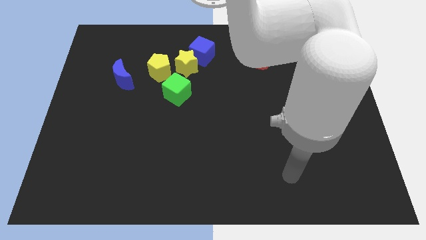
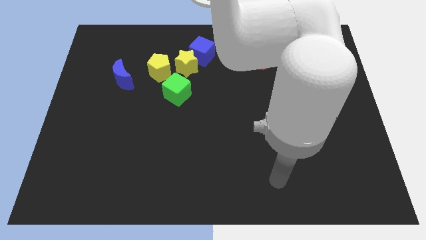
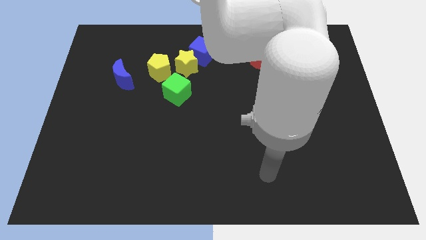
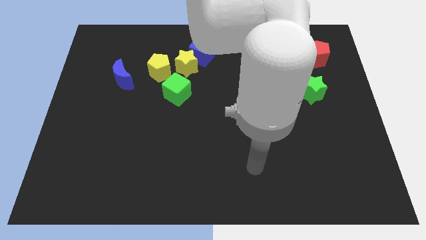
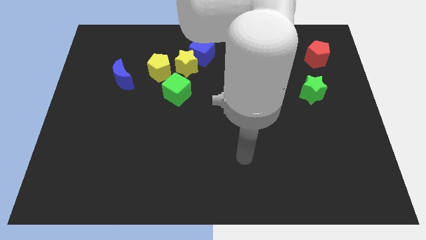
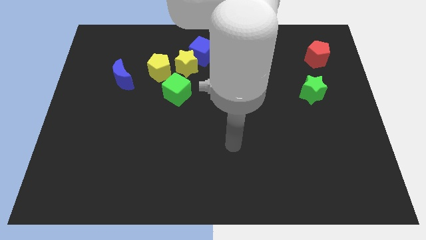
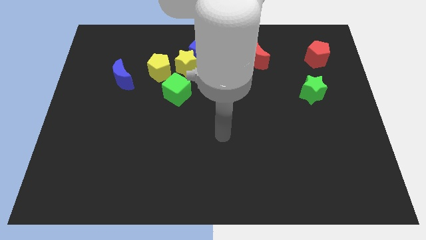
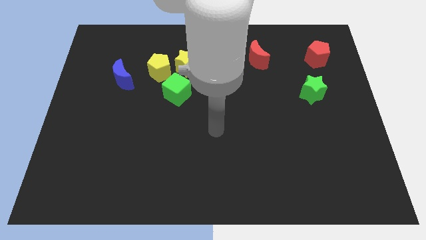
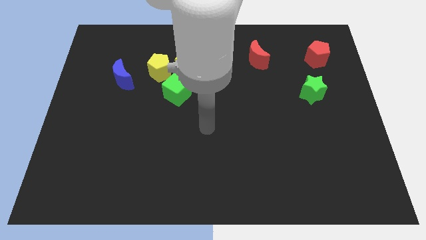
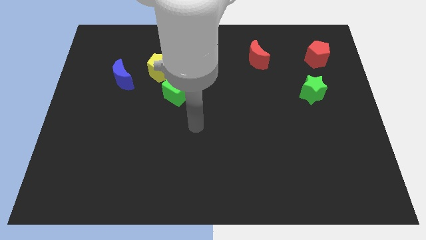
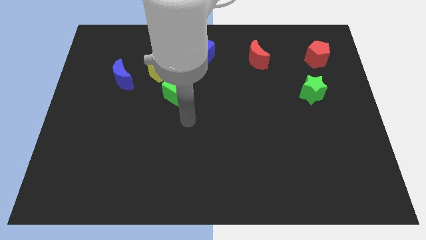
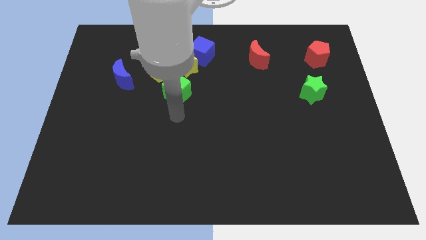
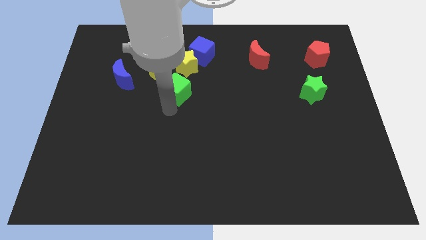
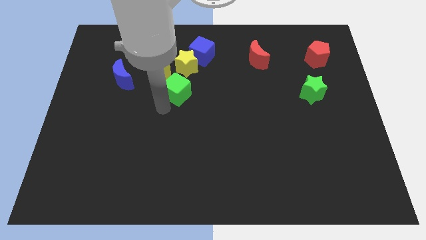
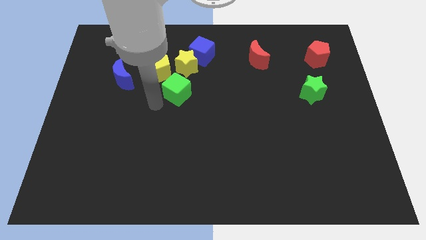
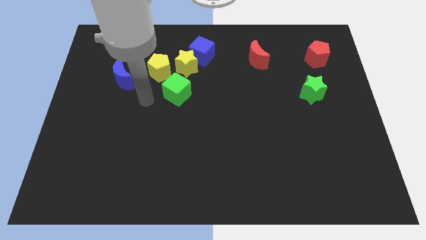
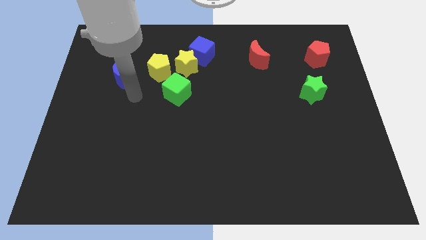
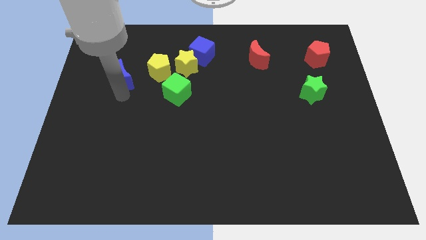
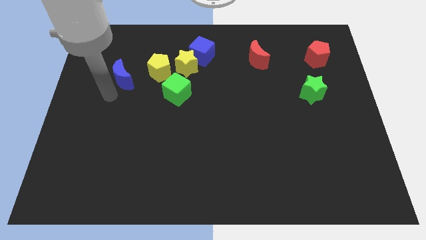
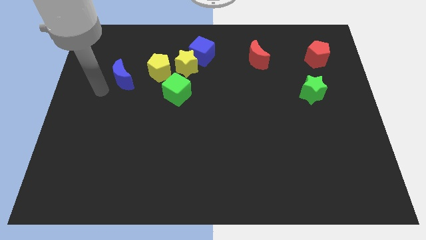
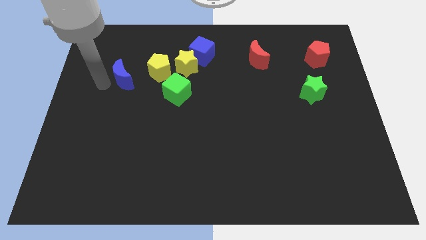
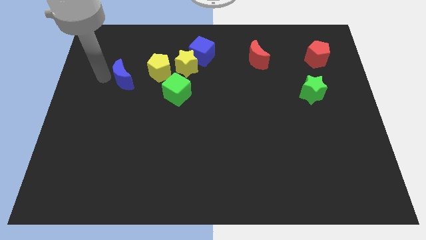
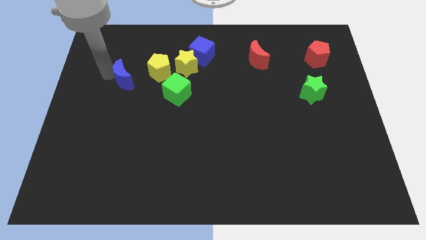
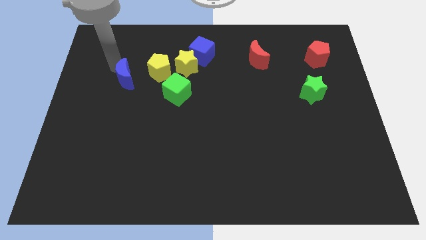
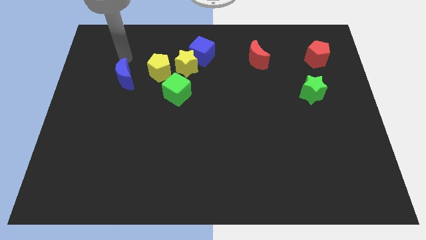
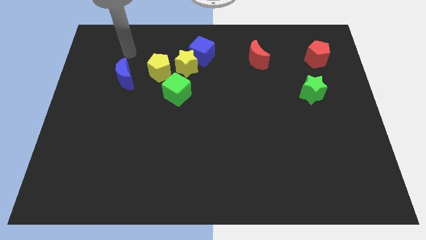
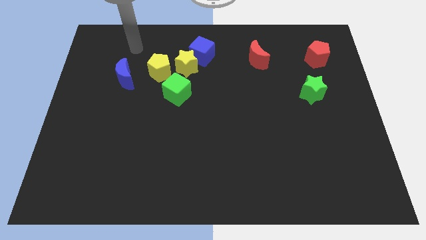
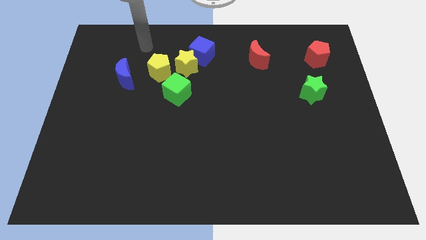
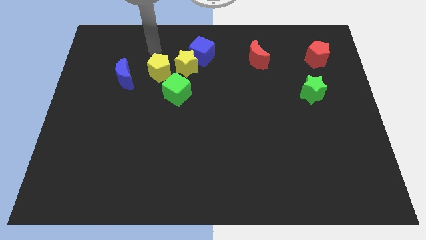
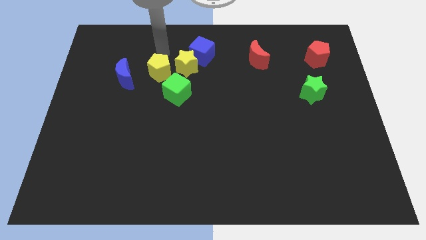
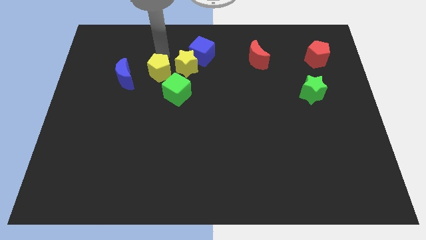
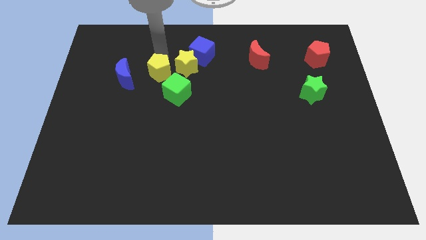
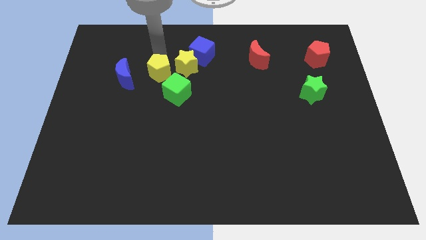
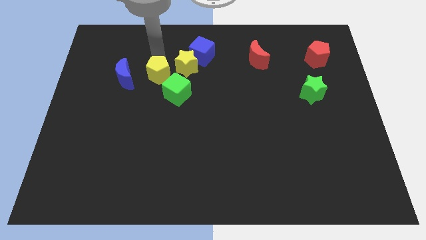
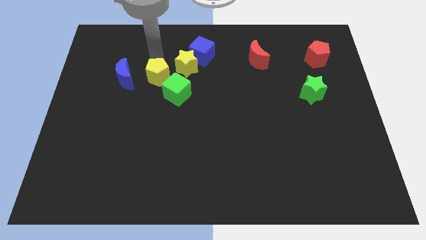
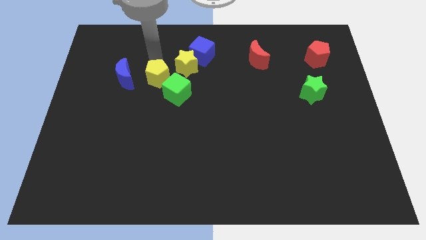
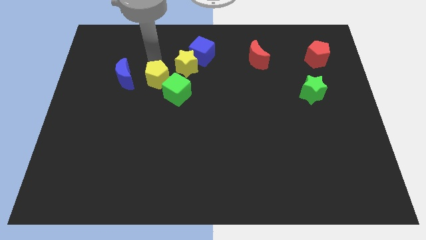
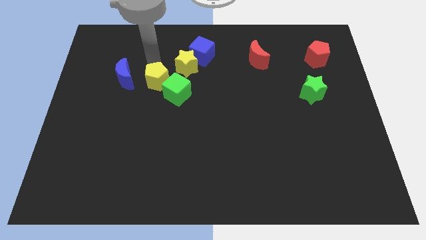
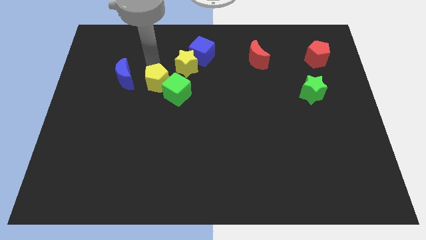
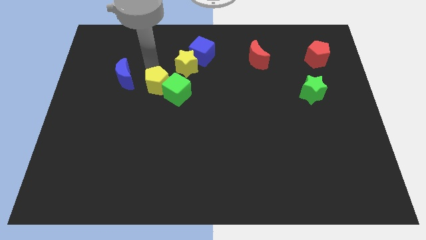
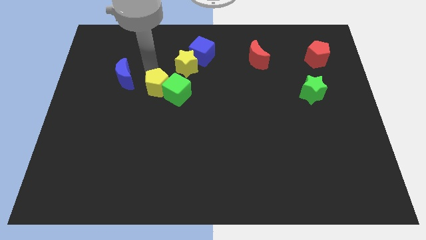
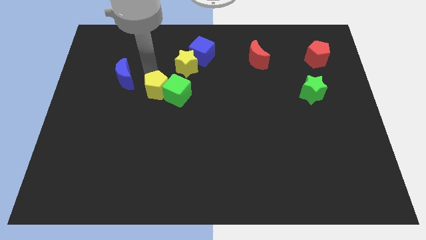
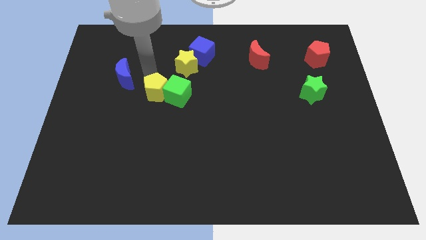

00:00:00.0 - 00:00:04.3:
move the yellow pentagon down a bit

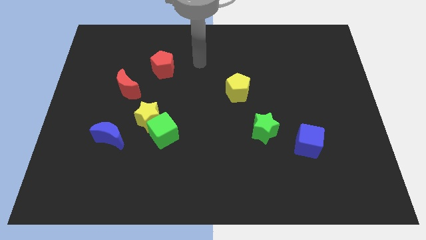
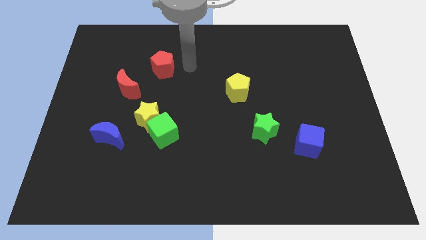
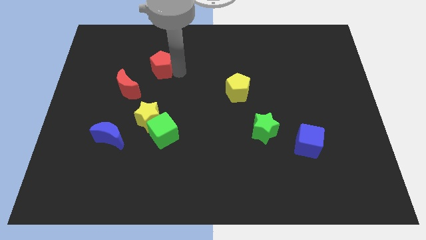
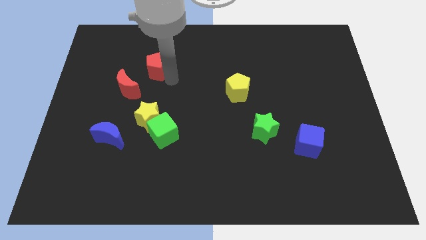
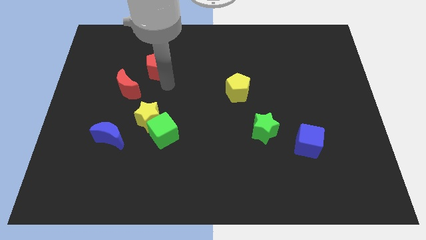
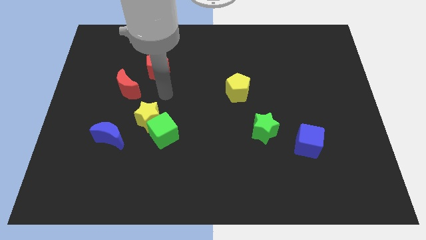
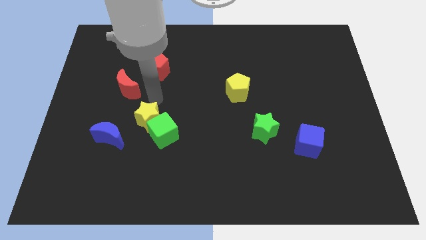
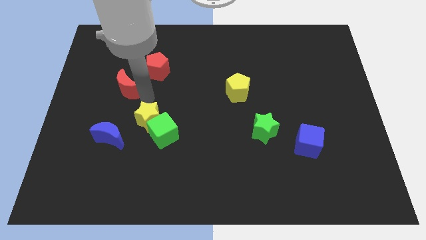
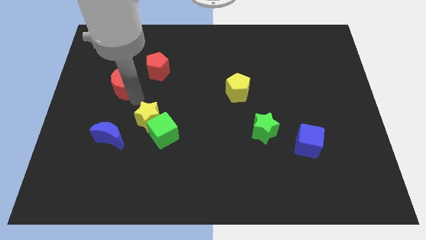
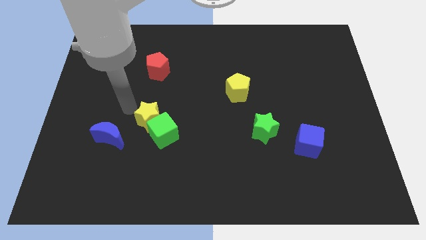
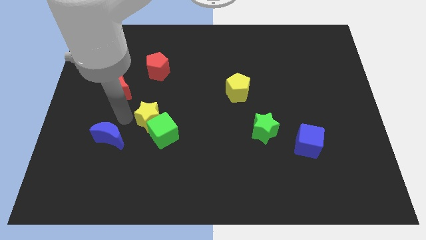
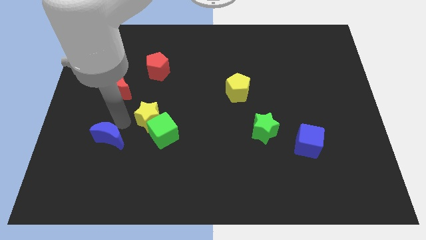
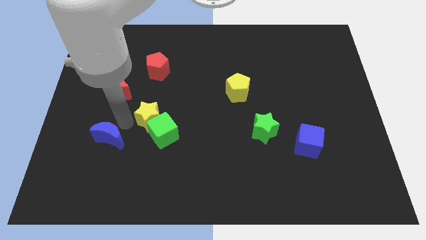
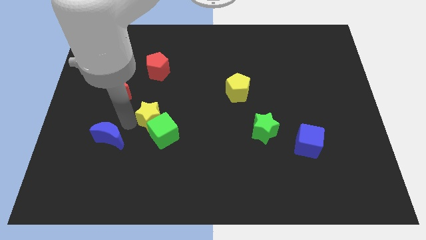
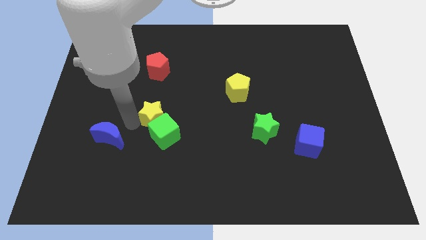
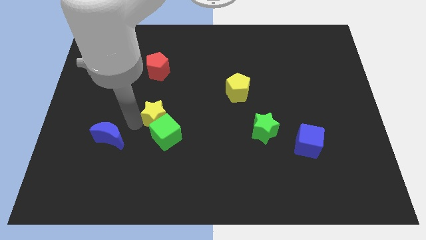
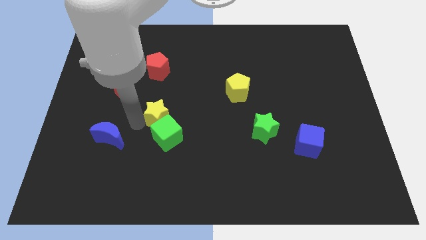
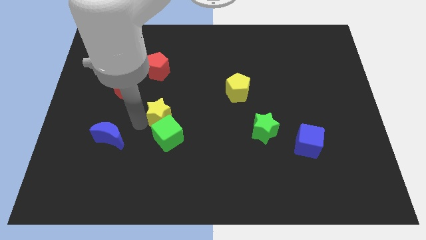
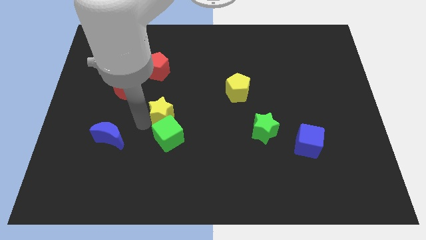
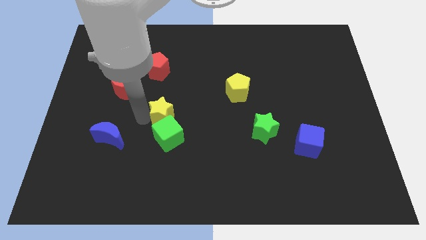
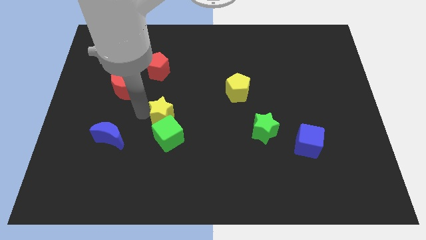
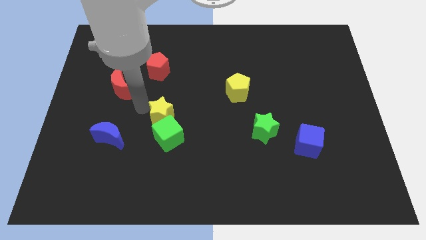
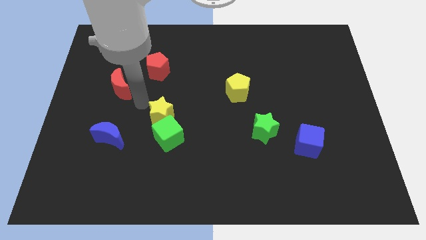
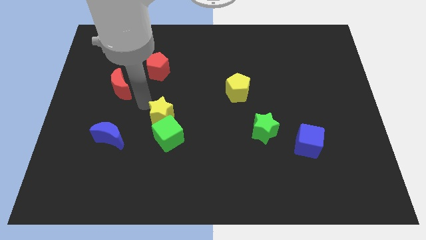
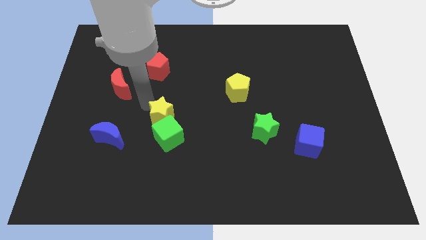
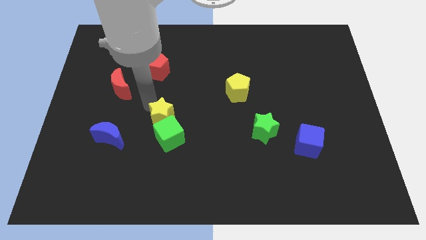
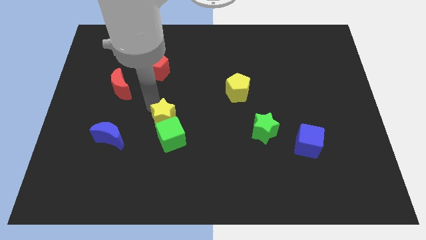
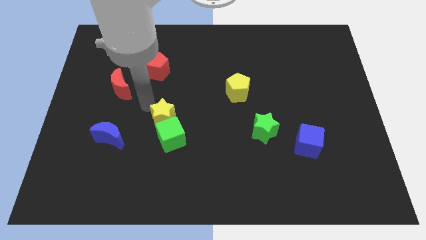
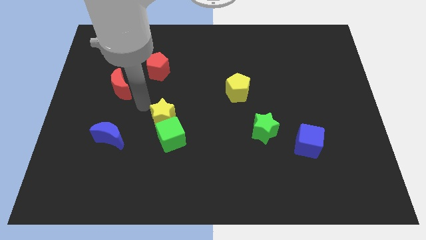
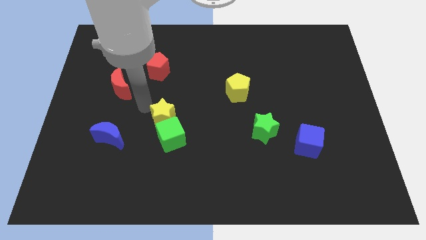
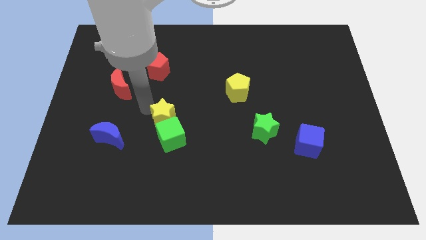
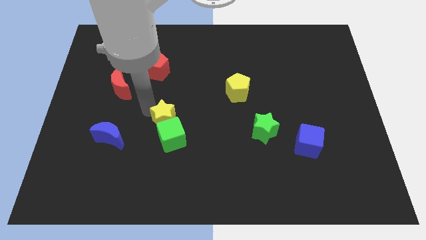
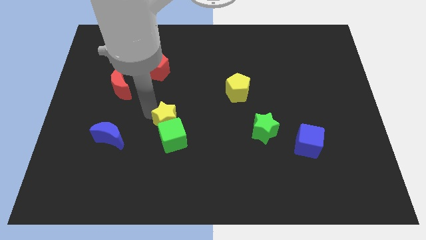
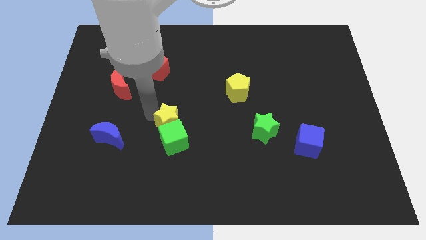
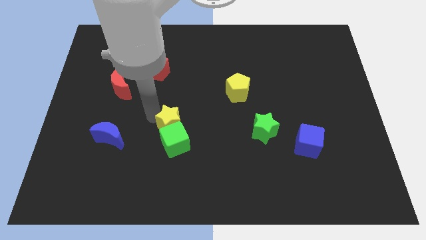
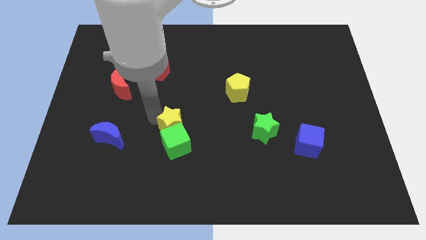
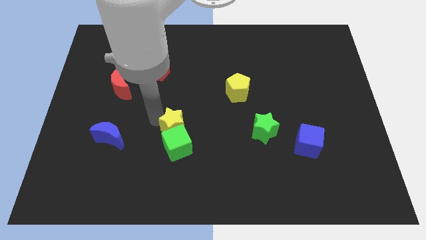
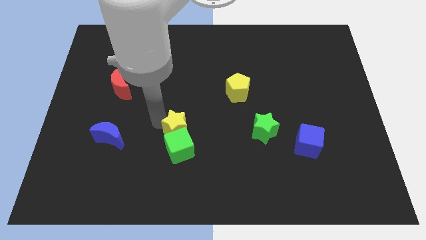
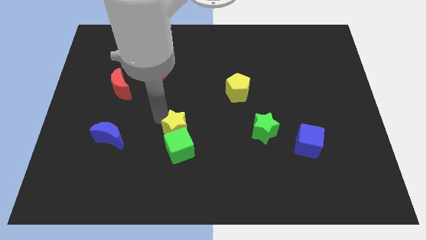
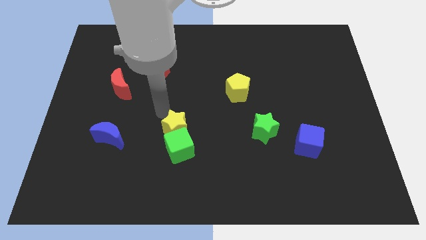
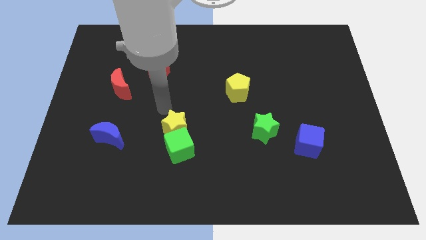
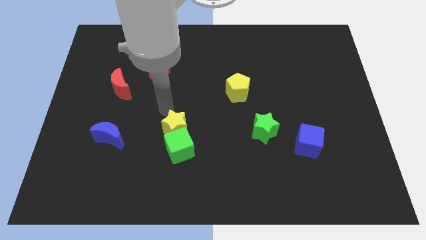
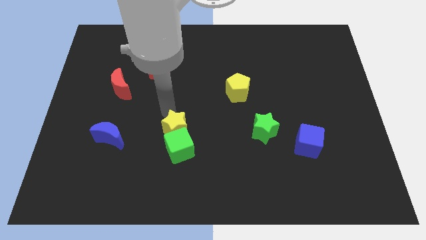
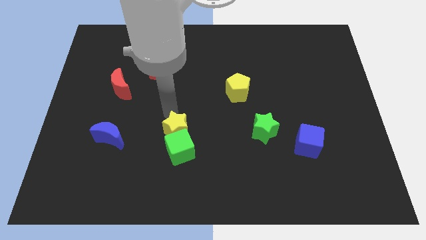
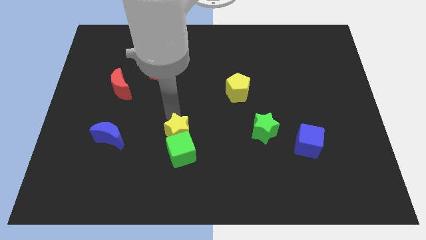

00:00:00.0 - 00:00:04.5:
push the yellow star a little bit downwards and right
